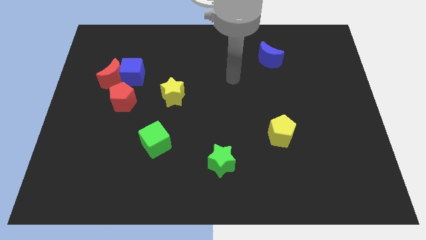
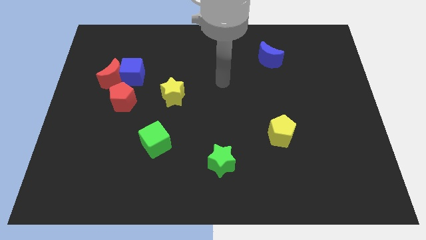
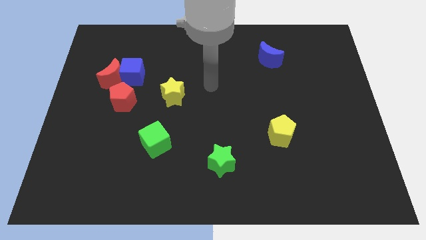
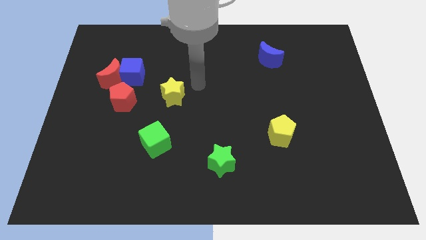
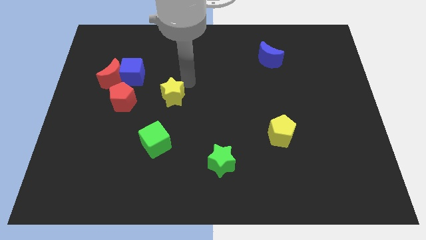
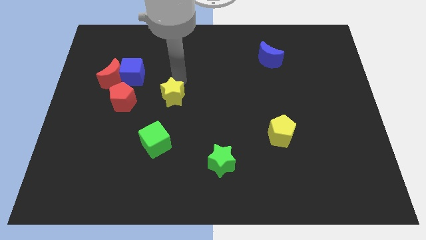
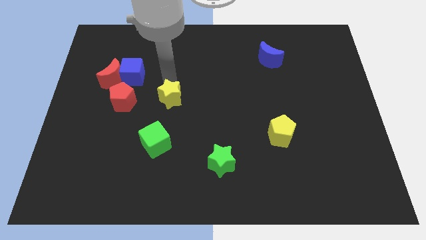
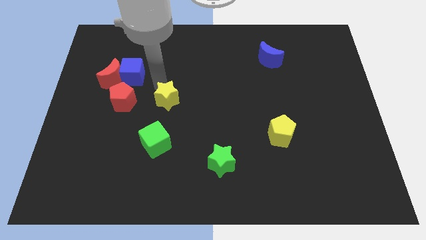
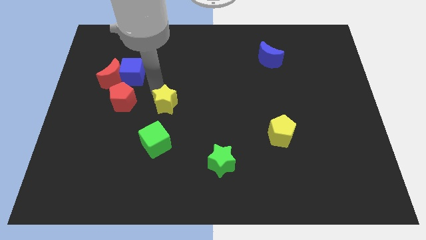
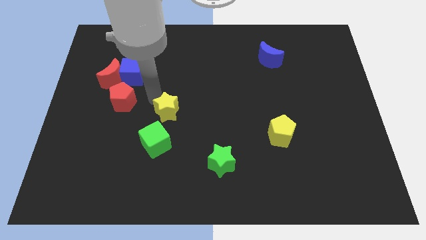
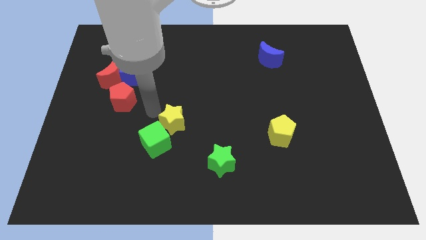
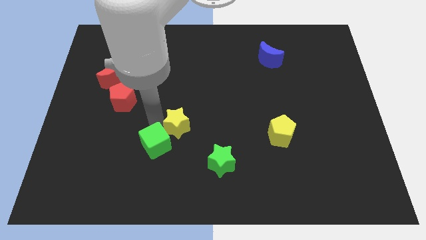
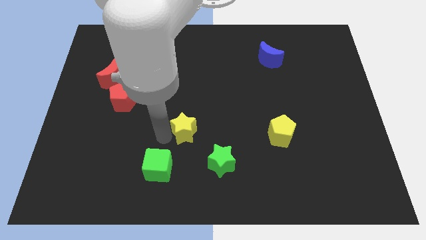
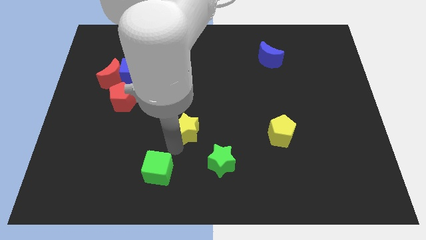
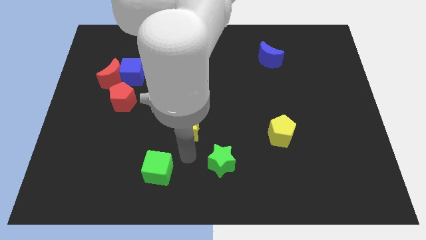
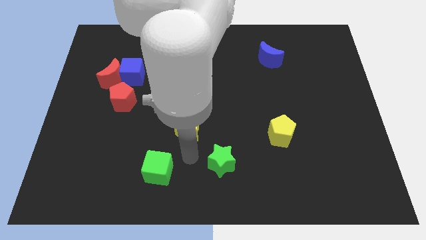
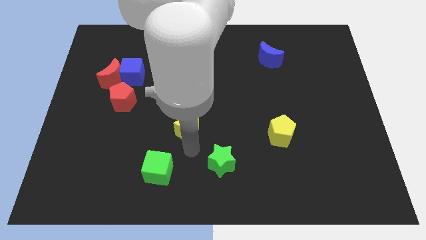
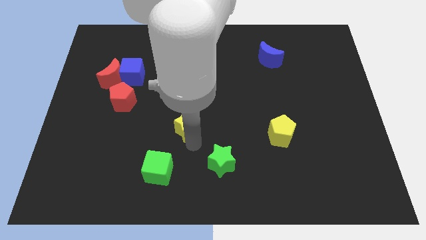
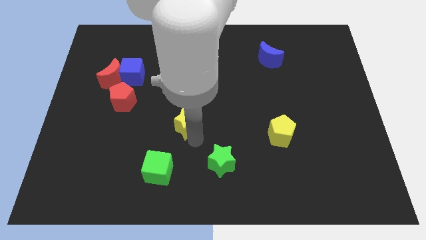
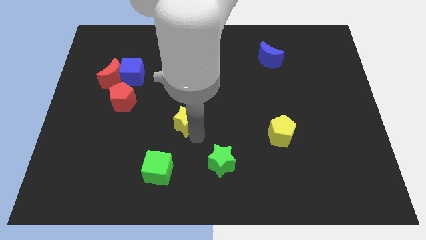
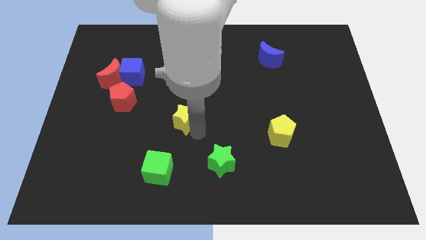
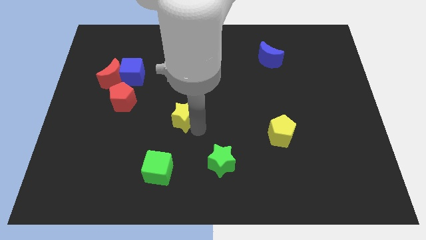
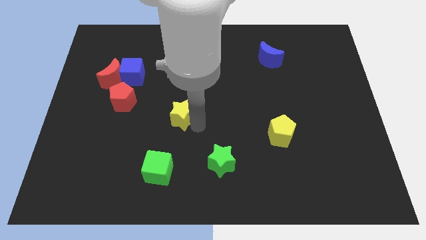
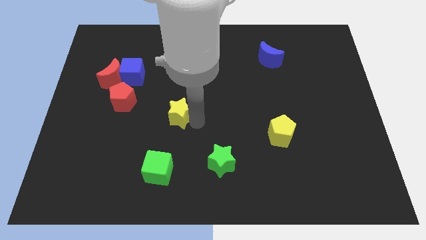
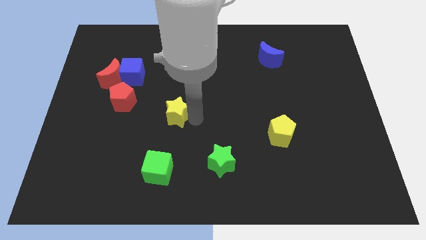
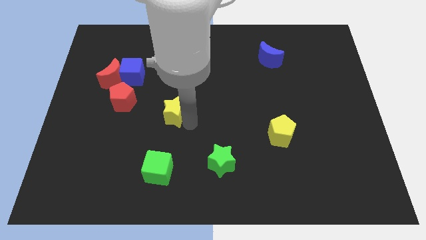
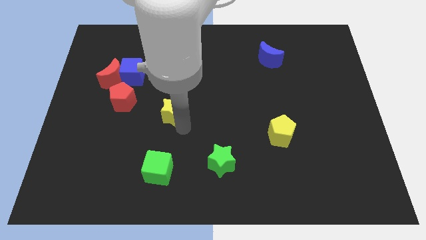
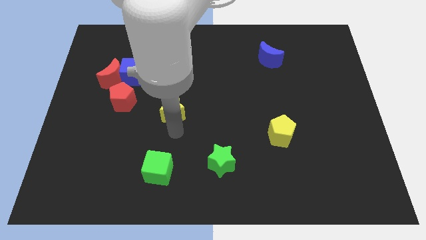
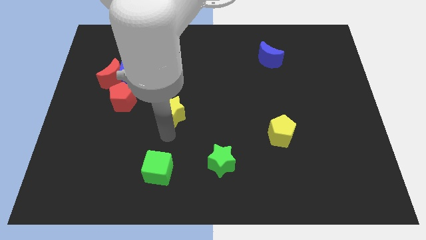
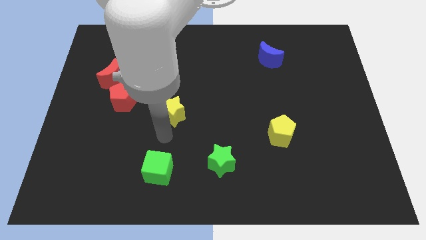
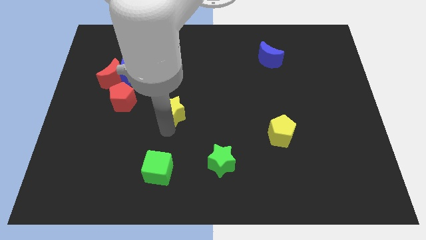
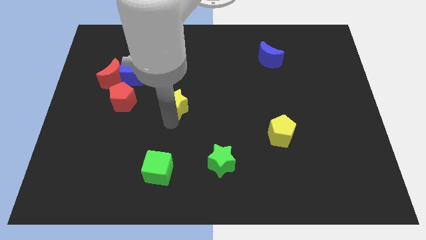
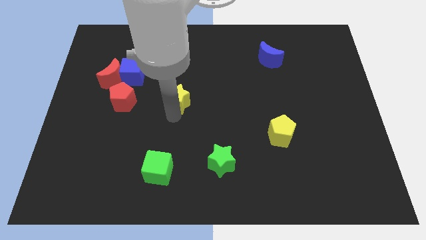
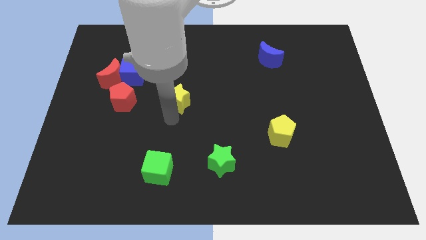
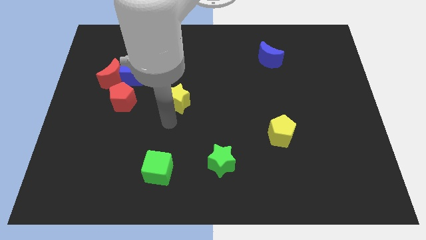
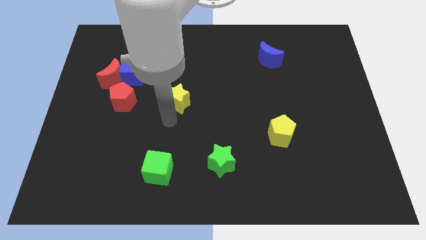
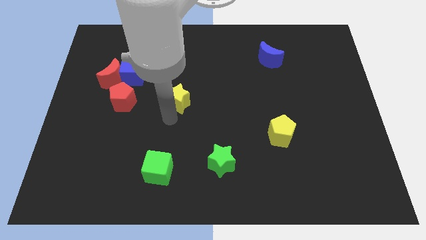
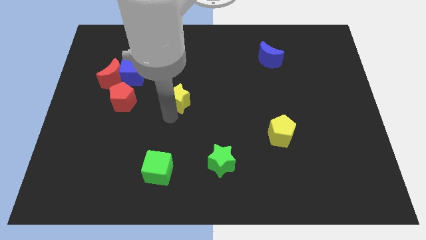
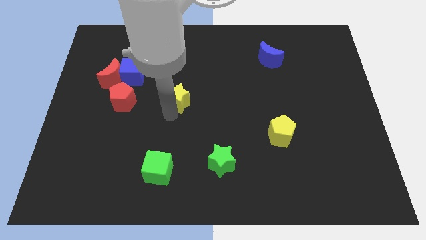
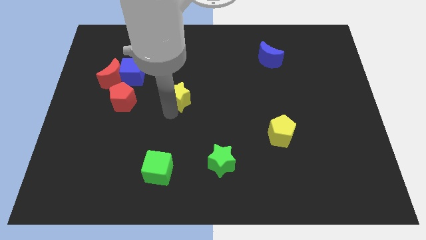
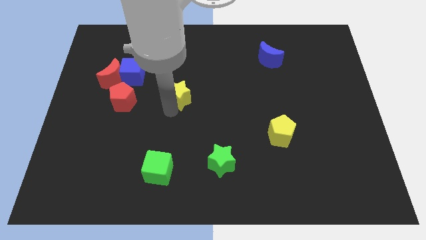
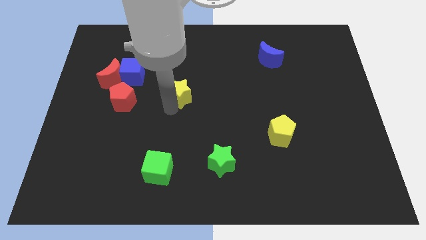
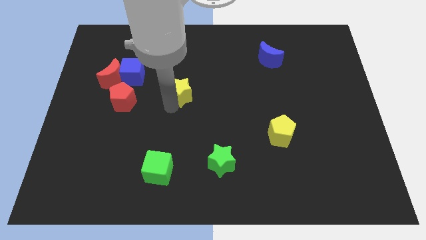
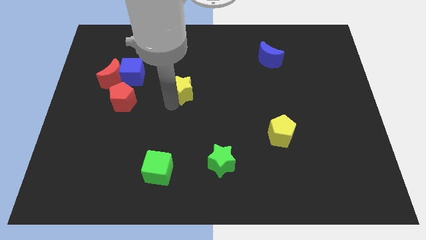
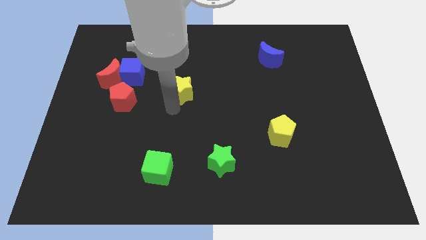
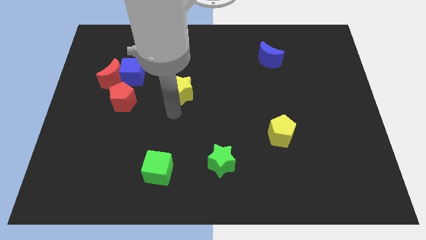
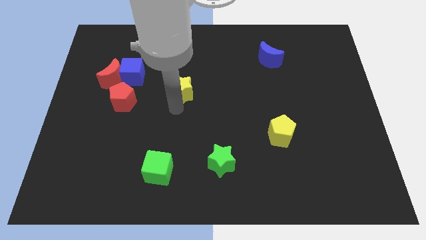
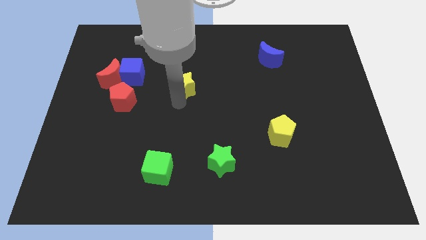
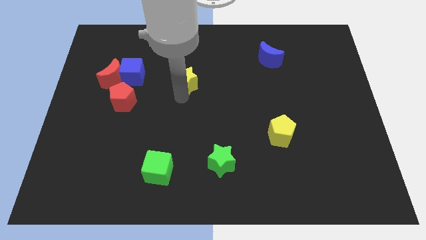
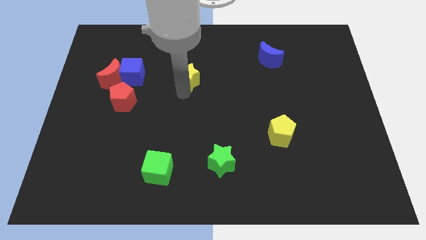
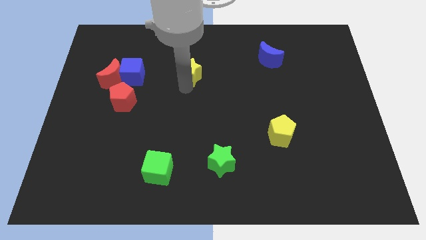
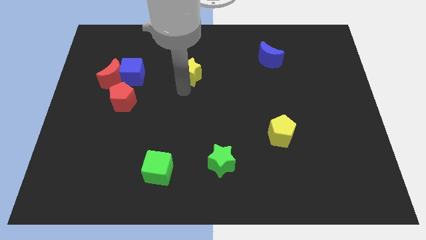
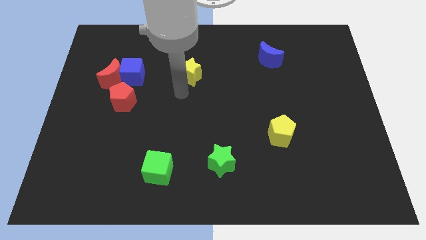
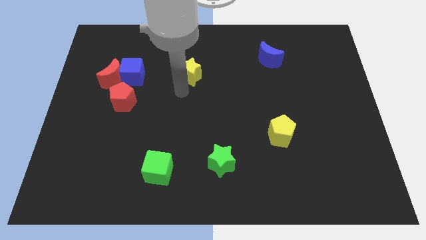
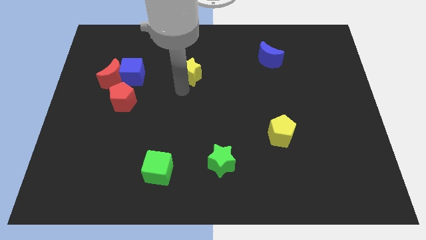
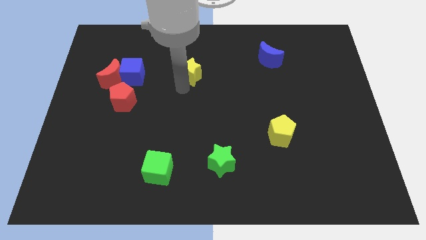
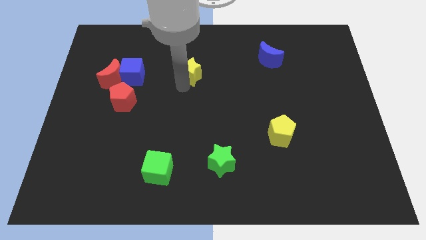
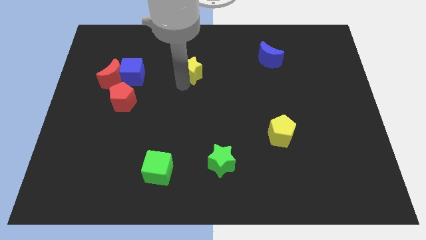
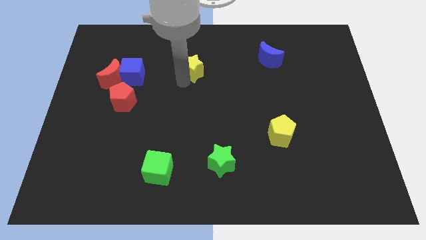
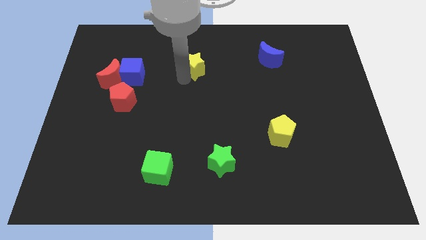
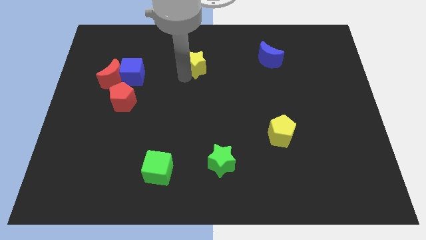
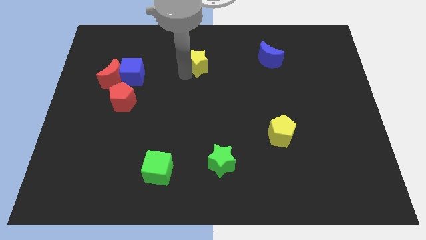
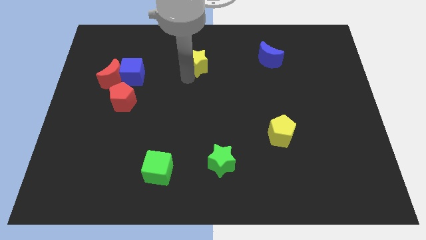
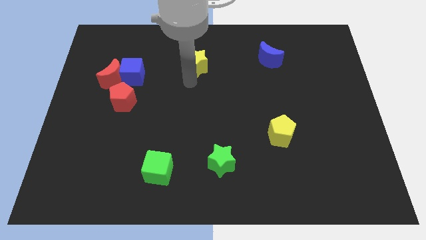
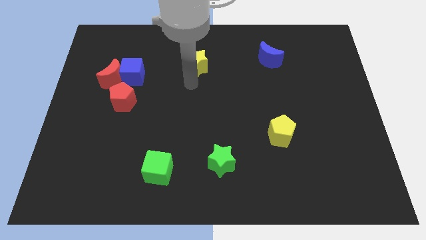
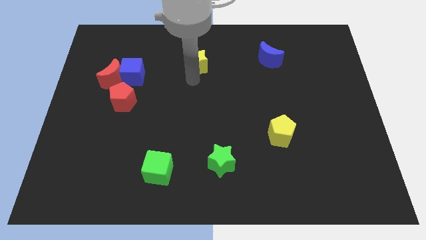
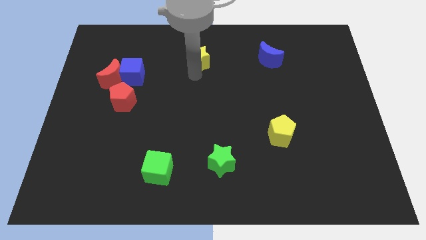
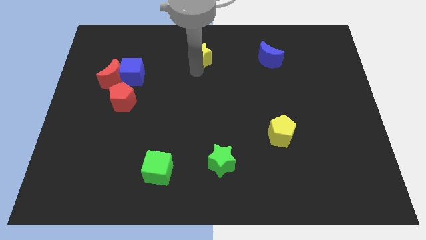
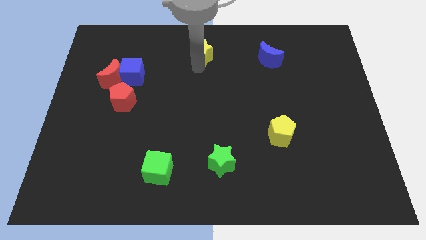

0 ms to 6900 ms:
push the yellow star to the top
